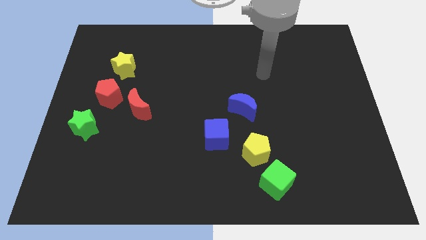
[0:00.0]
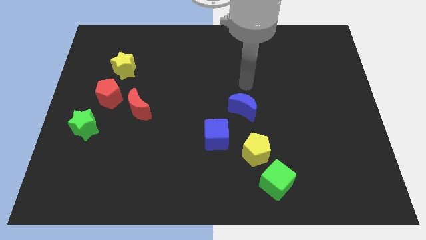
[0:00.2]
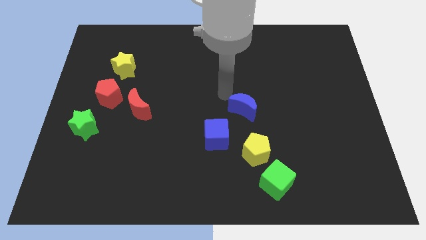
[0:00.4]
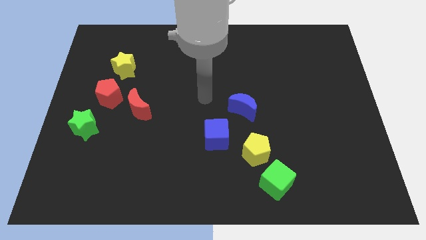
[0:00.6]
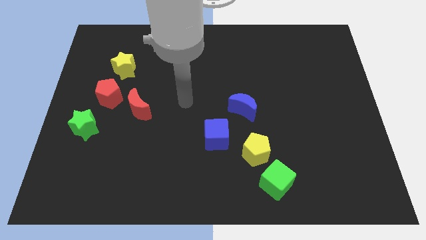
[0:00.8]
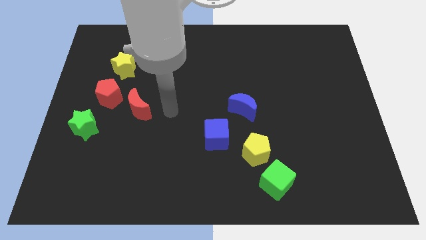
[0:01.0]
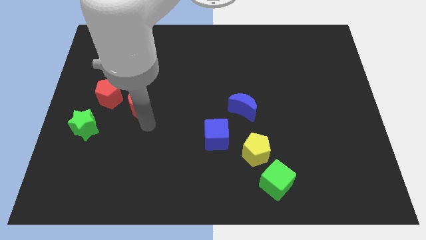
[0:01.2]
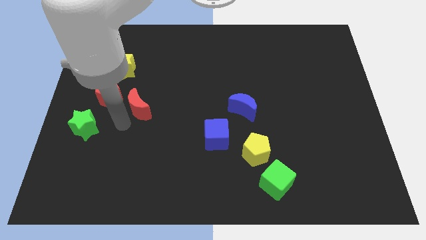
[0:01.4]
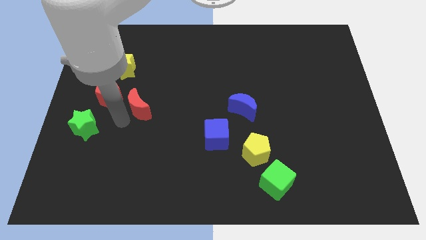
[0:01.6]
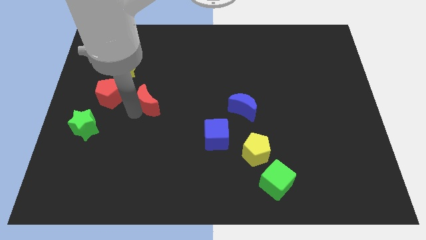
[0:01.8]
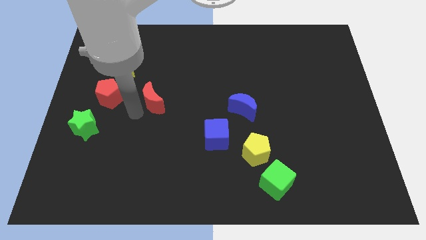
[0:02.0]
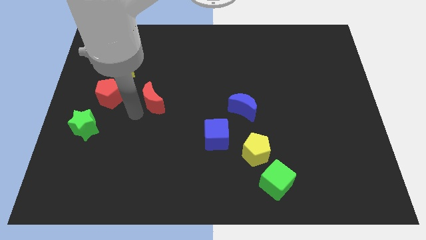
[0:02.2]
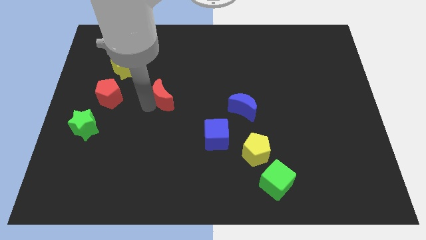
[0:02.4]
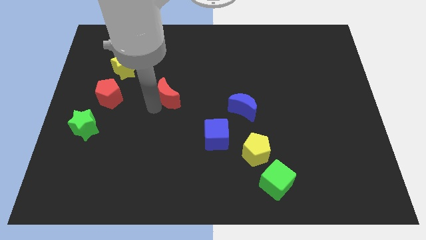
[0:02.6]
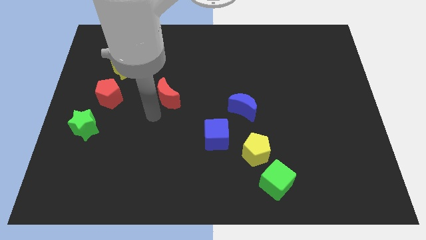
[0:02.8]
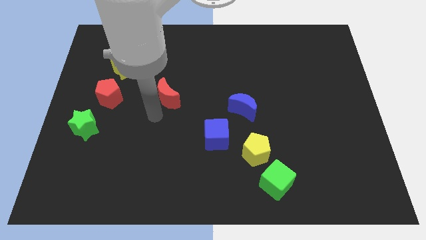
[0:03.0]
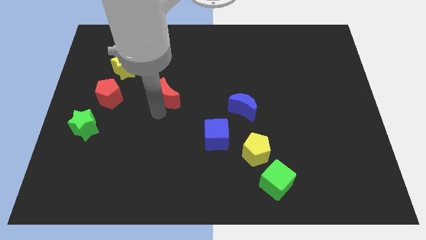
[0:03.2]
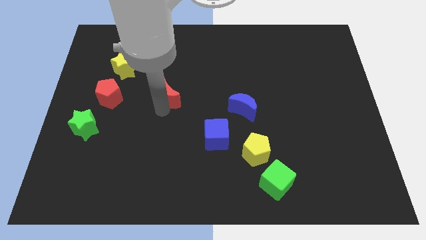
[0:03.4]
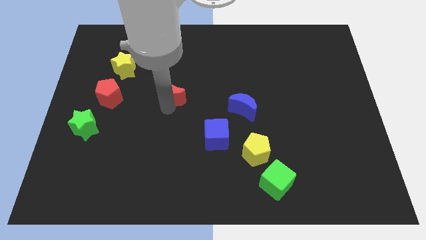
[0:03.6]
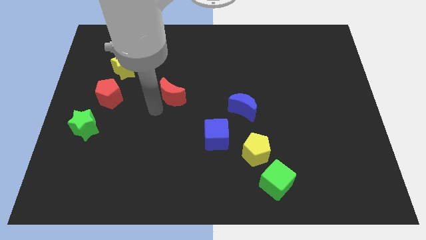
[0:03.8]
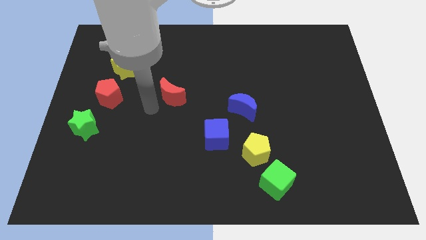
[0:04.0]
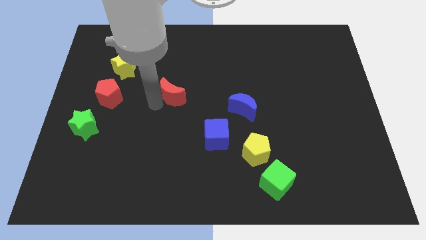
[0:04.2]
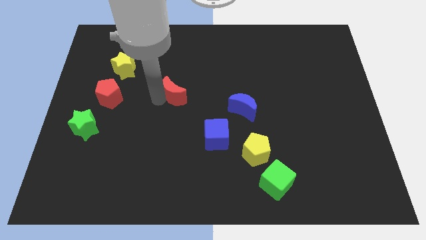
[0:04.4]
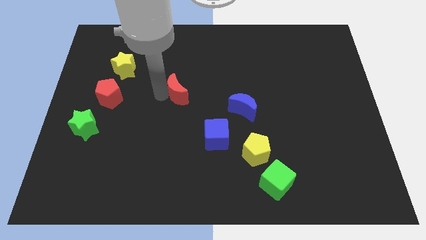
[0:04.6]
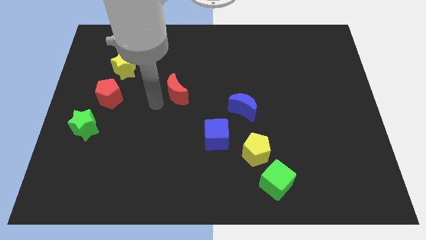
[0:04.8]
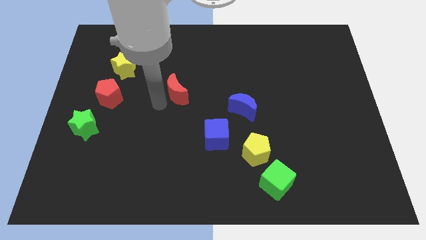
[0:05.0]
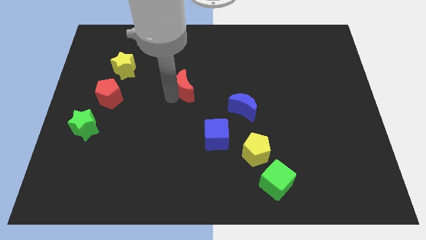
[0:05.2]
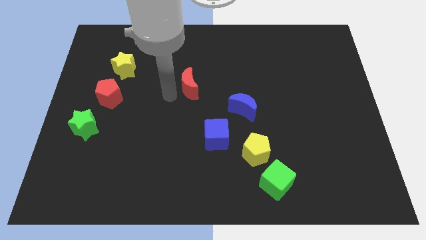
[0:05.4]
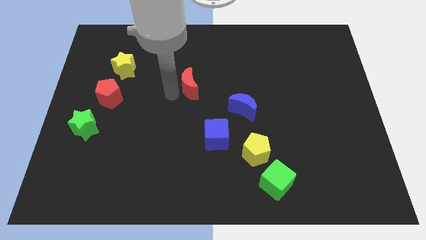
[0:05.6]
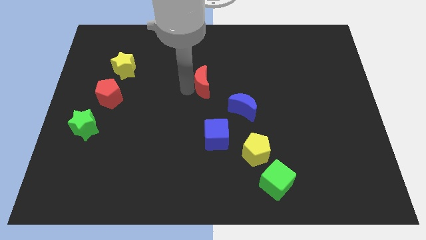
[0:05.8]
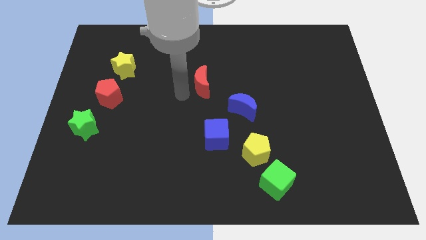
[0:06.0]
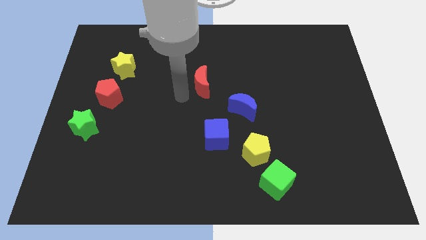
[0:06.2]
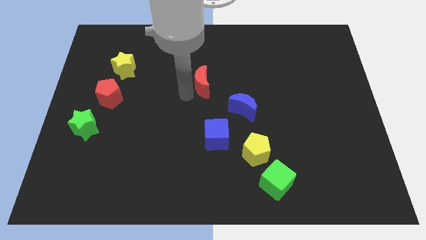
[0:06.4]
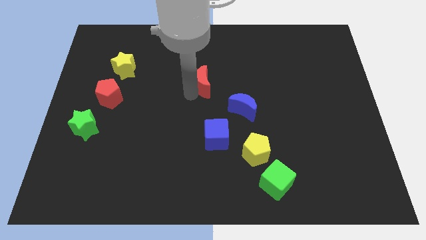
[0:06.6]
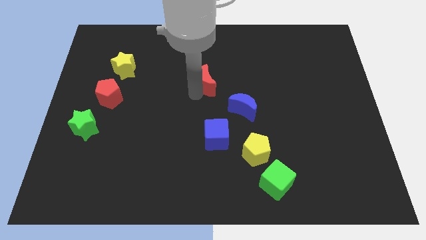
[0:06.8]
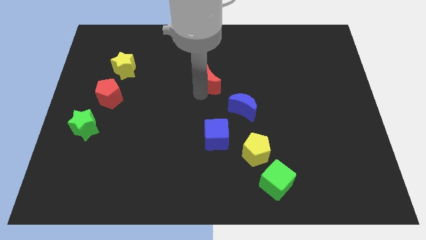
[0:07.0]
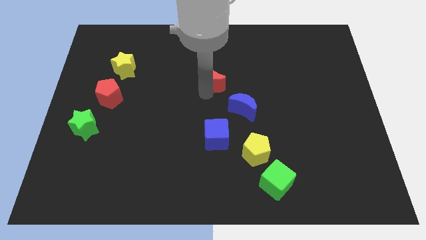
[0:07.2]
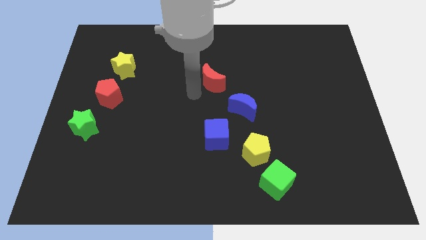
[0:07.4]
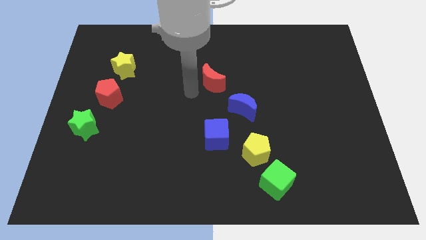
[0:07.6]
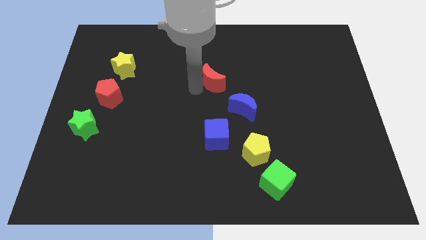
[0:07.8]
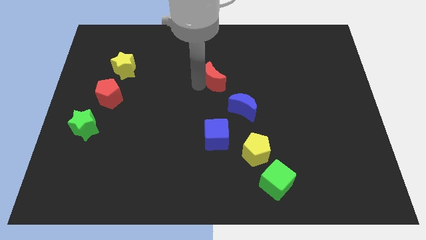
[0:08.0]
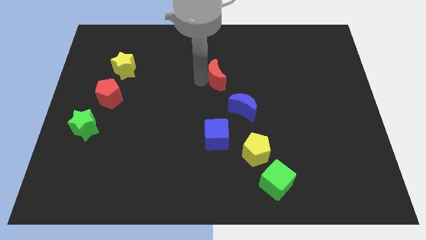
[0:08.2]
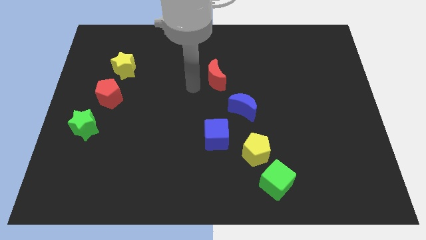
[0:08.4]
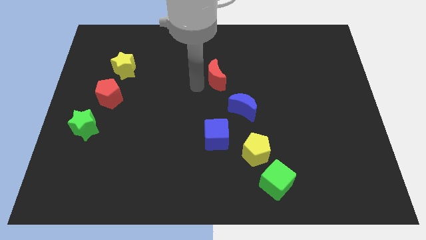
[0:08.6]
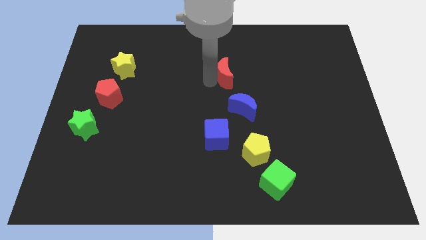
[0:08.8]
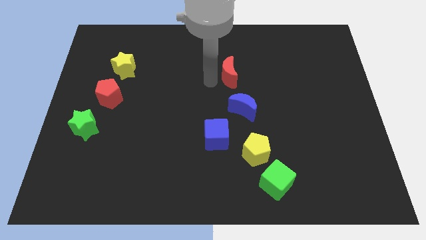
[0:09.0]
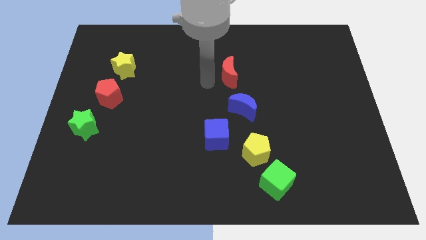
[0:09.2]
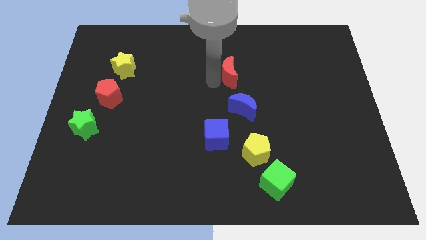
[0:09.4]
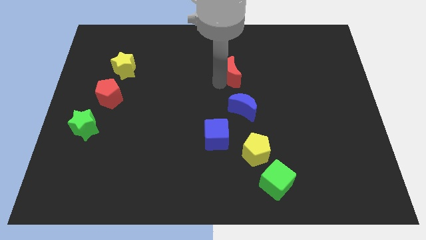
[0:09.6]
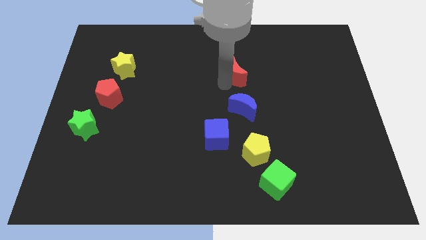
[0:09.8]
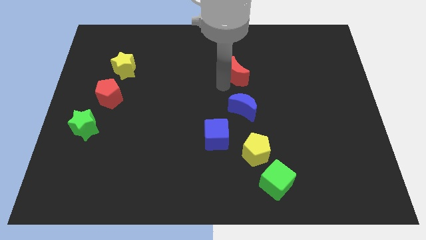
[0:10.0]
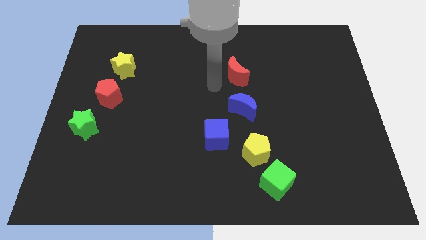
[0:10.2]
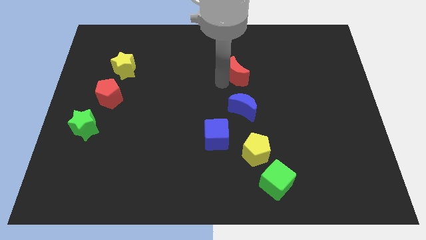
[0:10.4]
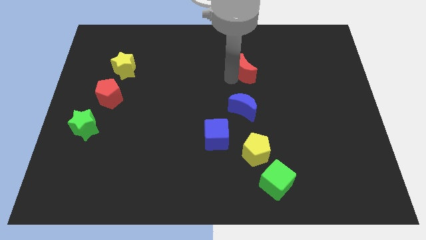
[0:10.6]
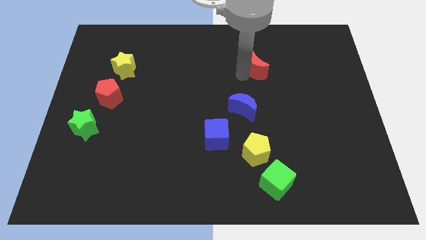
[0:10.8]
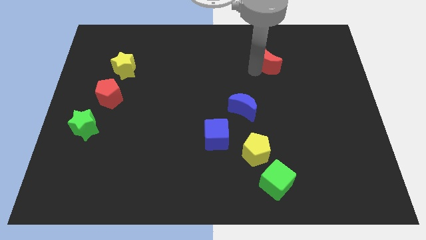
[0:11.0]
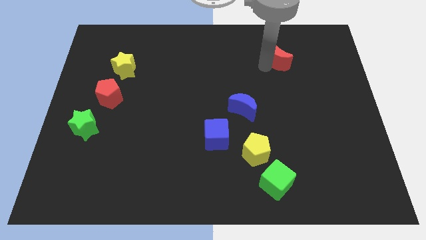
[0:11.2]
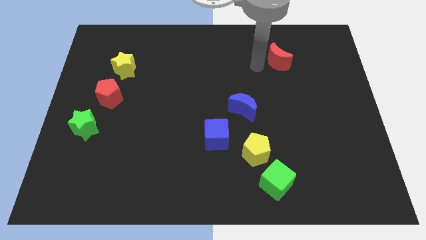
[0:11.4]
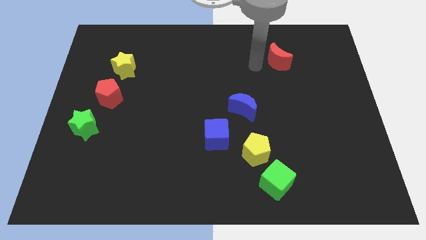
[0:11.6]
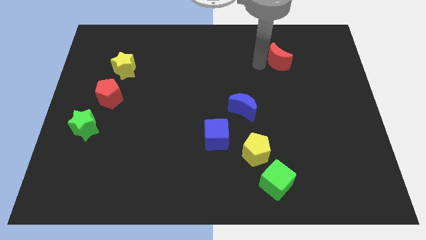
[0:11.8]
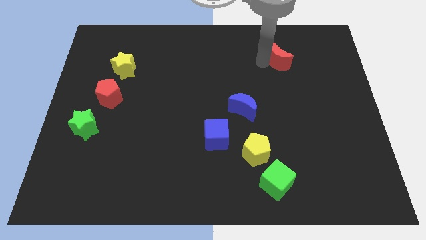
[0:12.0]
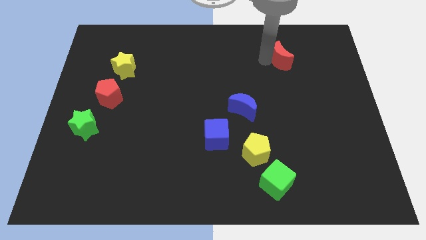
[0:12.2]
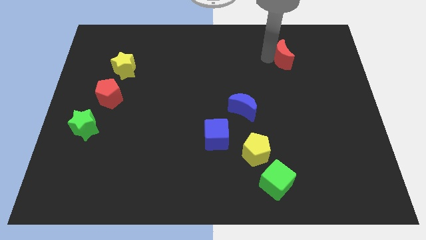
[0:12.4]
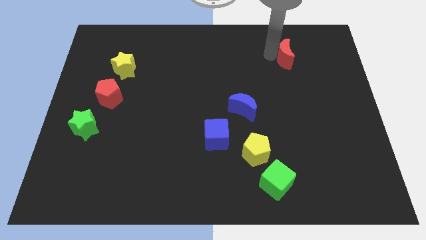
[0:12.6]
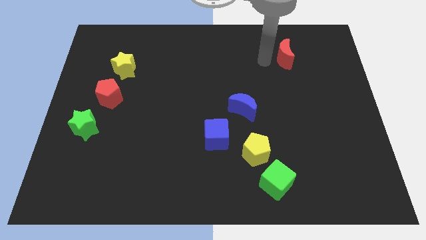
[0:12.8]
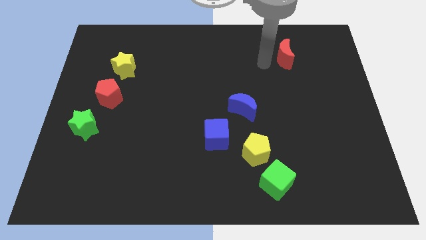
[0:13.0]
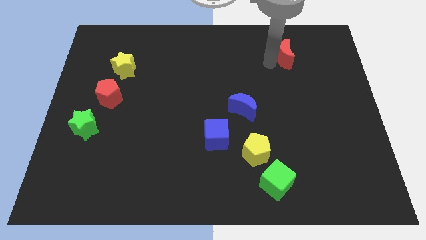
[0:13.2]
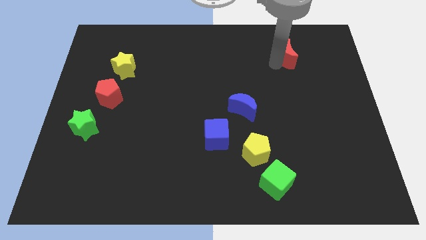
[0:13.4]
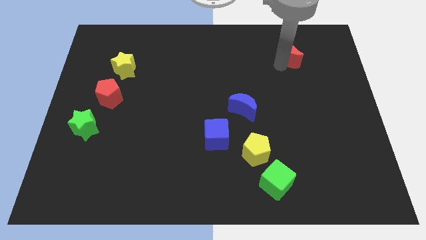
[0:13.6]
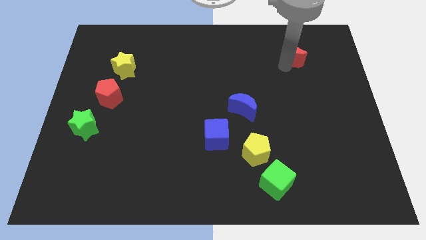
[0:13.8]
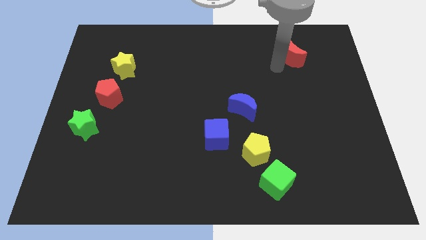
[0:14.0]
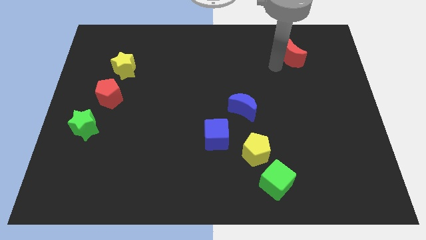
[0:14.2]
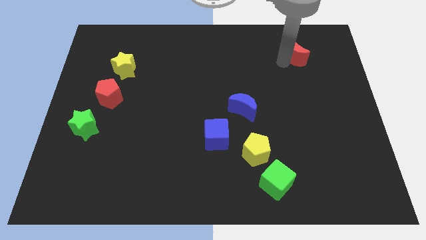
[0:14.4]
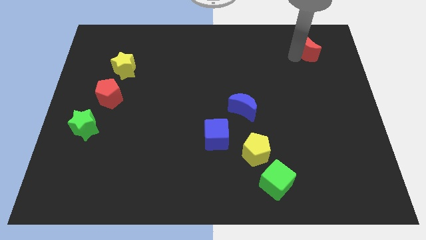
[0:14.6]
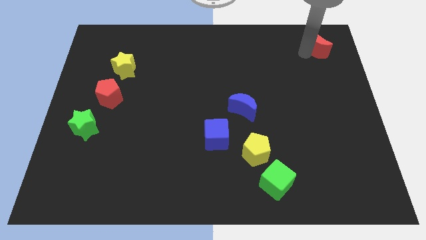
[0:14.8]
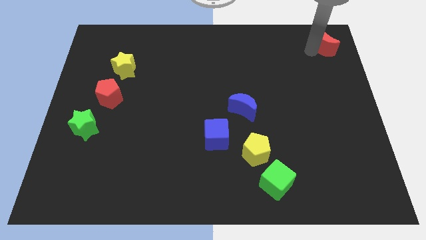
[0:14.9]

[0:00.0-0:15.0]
push the red moon to the upper right corner
